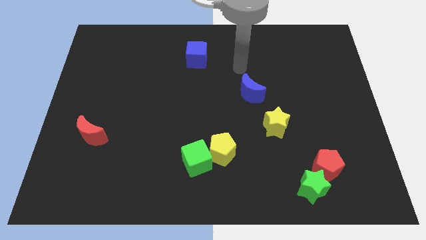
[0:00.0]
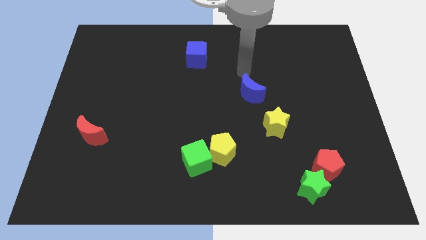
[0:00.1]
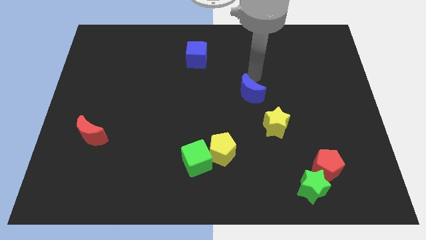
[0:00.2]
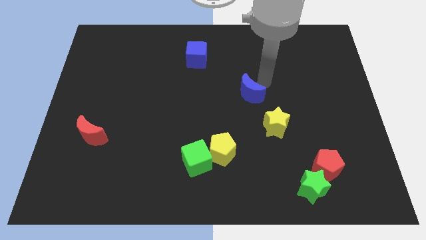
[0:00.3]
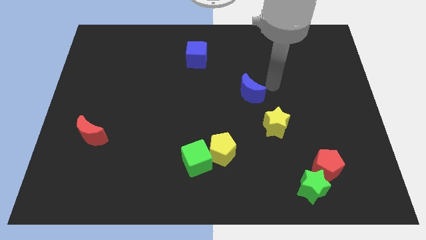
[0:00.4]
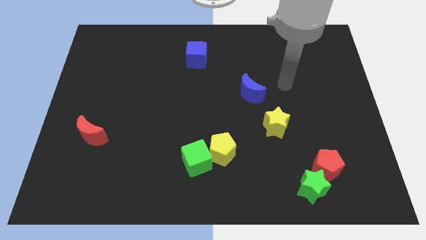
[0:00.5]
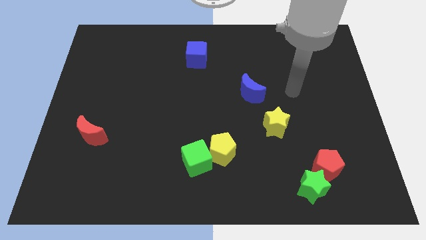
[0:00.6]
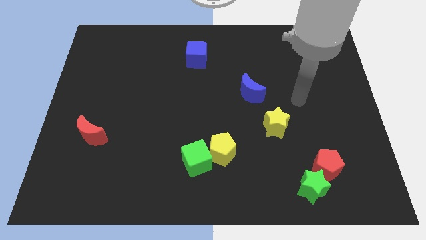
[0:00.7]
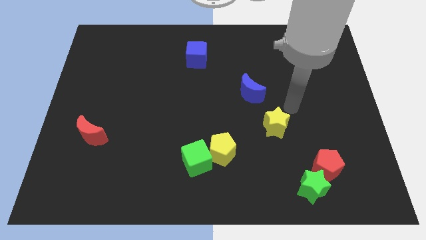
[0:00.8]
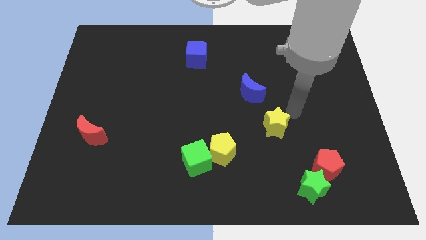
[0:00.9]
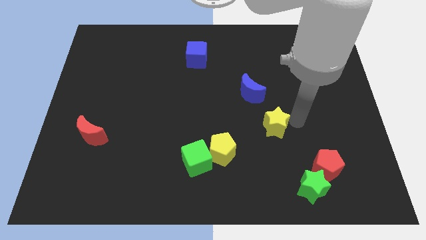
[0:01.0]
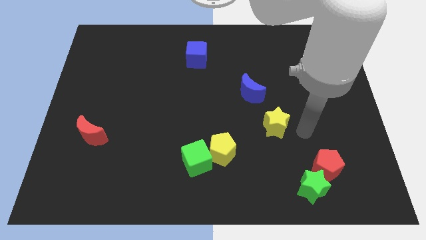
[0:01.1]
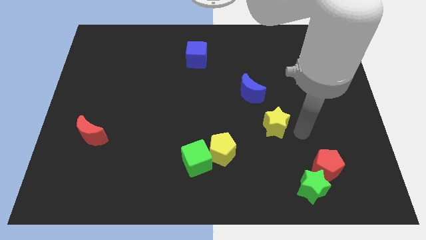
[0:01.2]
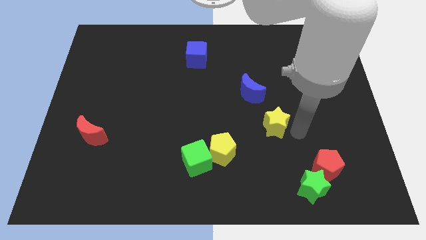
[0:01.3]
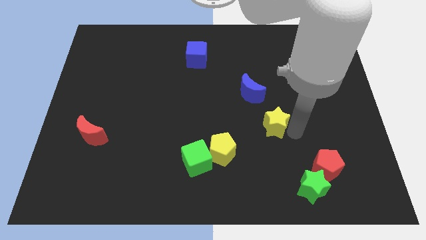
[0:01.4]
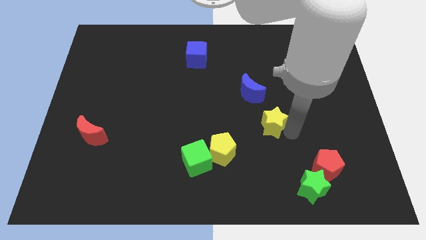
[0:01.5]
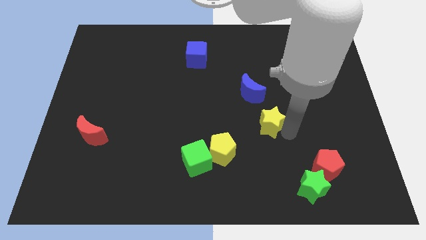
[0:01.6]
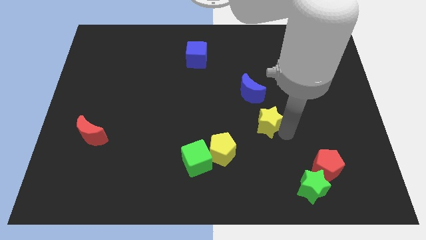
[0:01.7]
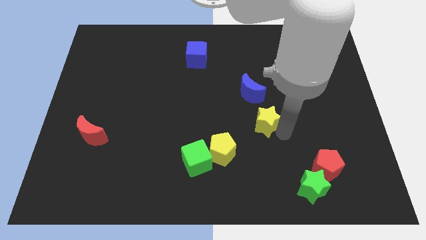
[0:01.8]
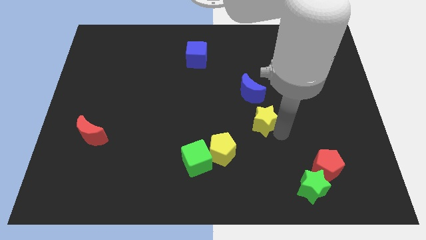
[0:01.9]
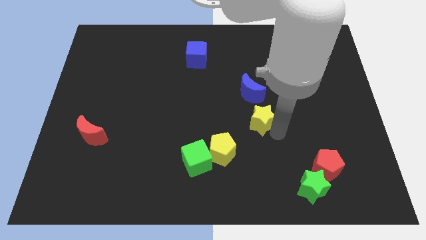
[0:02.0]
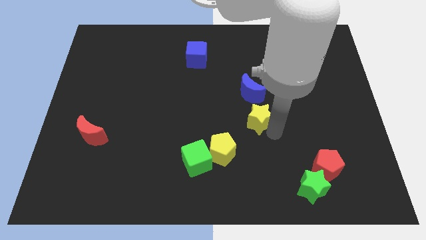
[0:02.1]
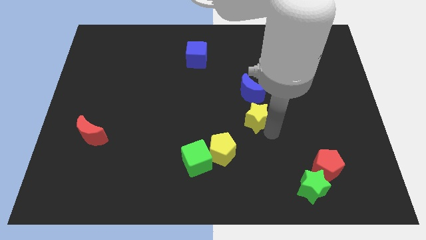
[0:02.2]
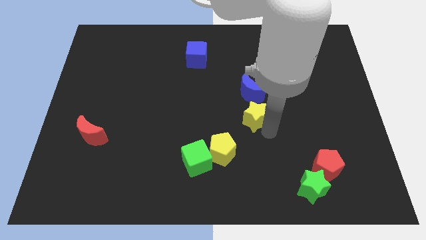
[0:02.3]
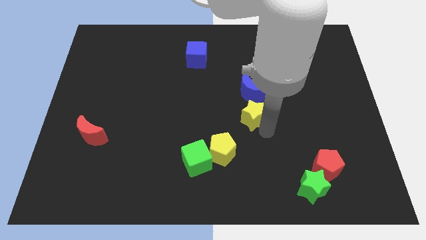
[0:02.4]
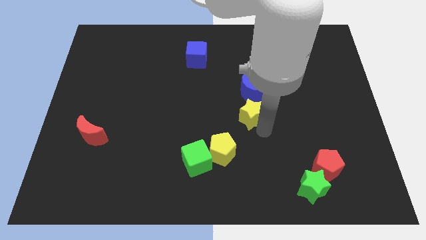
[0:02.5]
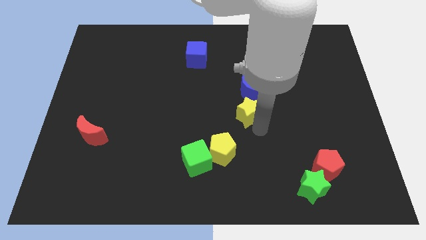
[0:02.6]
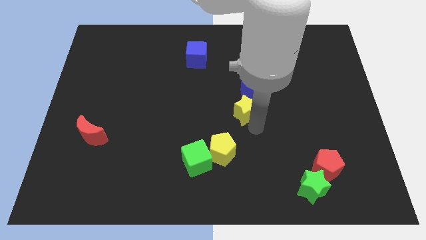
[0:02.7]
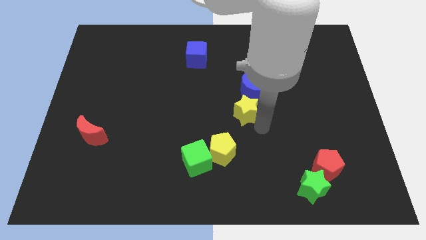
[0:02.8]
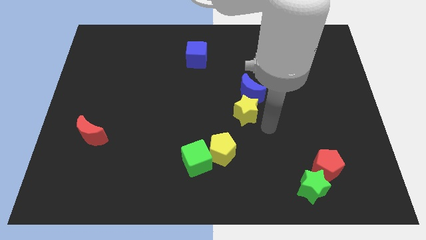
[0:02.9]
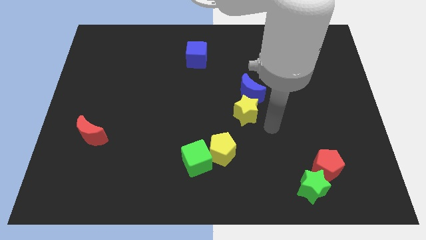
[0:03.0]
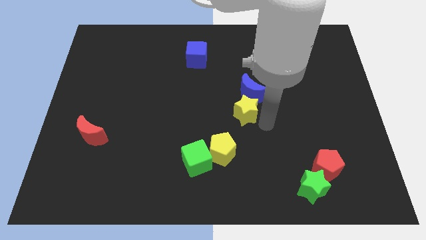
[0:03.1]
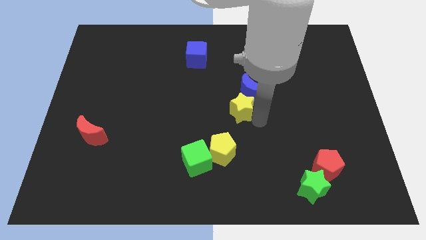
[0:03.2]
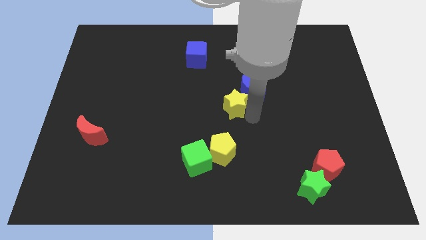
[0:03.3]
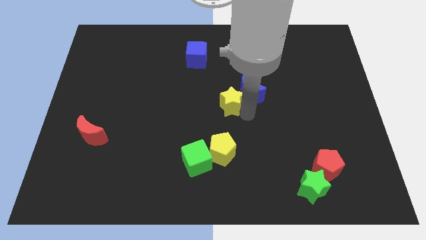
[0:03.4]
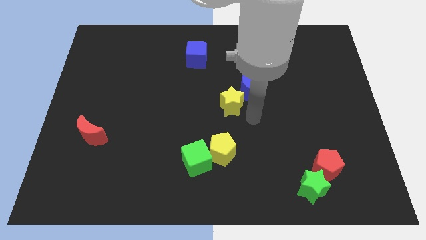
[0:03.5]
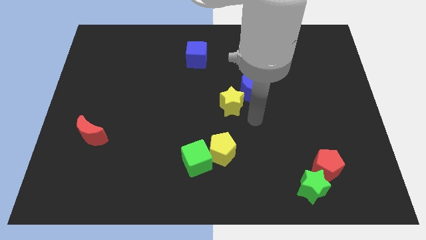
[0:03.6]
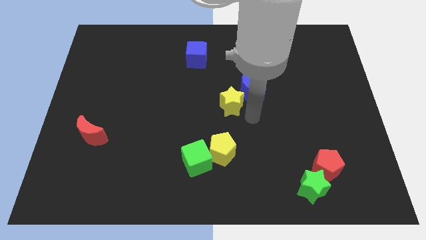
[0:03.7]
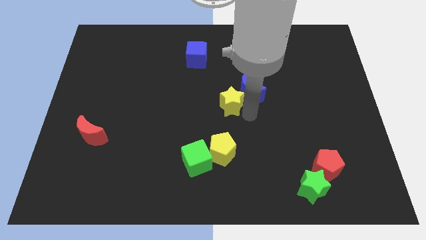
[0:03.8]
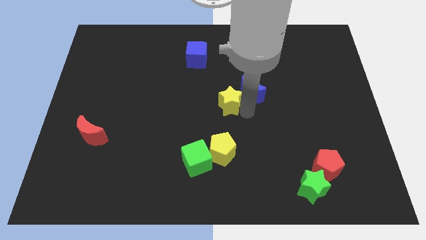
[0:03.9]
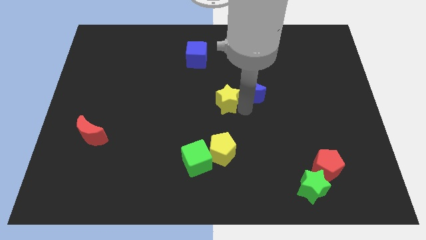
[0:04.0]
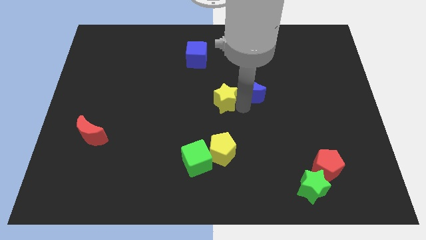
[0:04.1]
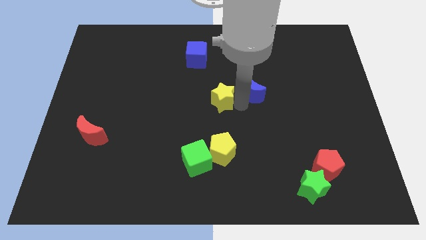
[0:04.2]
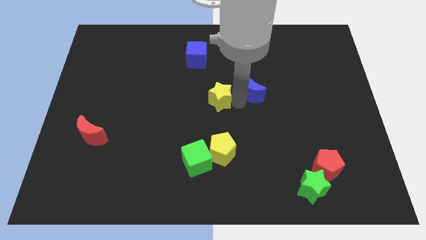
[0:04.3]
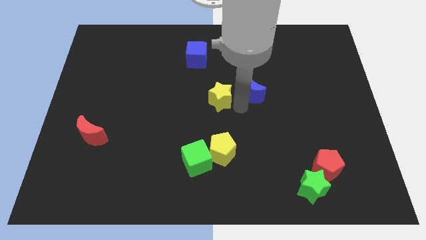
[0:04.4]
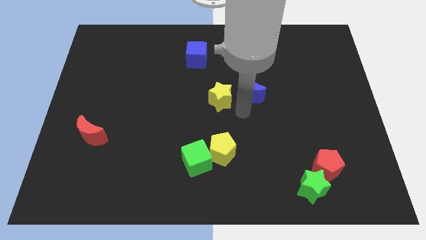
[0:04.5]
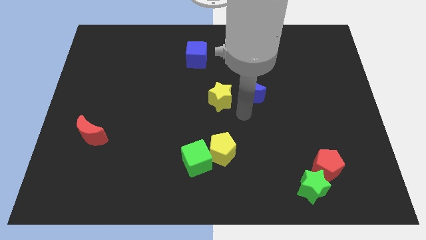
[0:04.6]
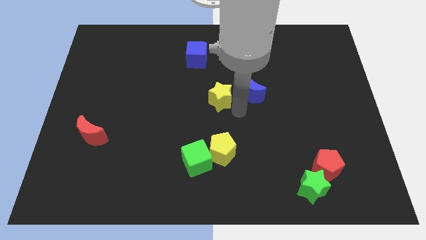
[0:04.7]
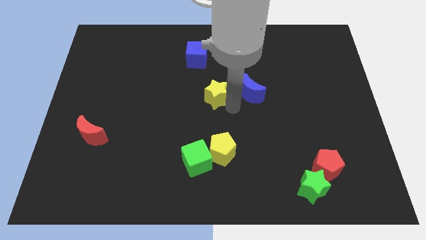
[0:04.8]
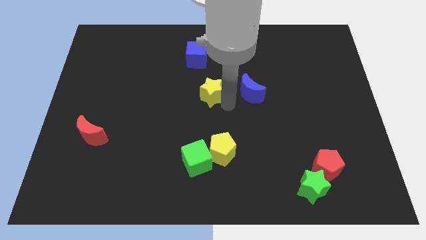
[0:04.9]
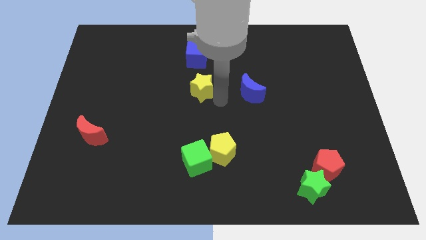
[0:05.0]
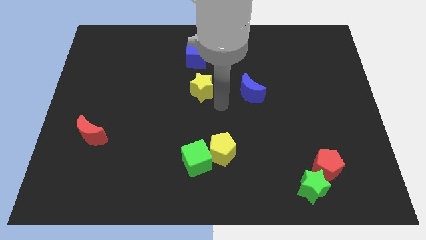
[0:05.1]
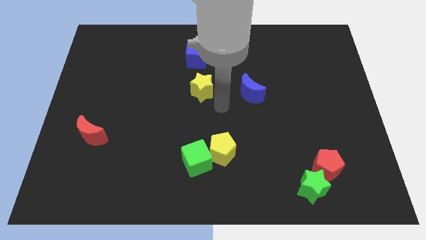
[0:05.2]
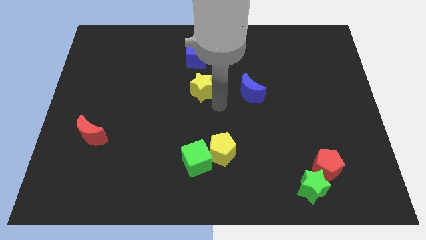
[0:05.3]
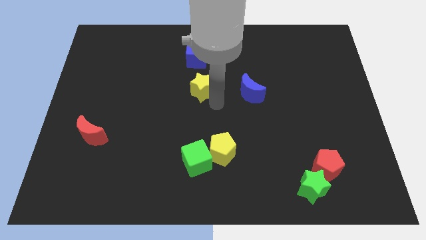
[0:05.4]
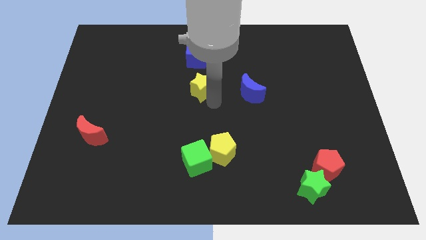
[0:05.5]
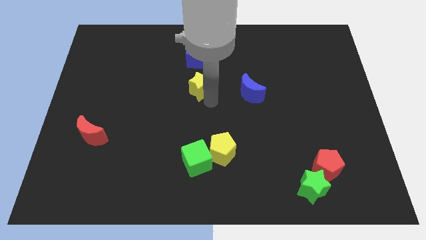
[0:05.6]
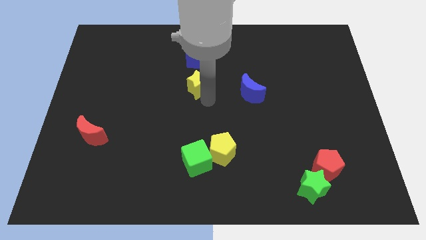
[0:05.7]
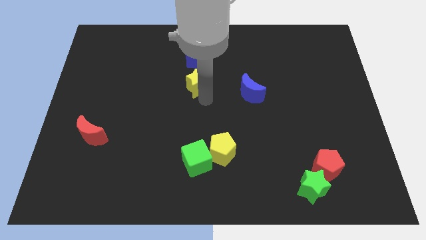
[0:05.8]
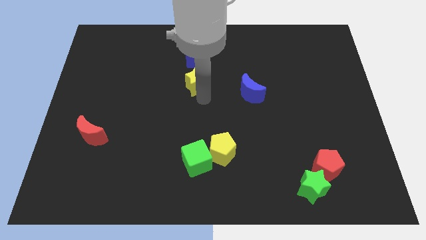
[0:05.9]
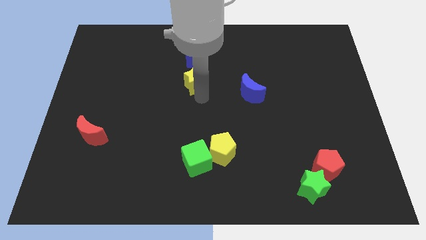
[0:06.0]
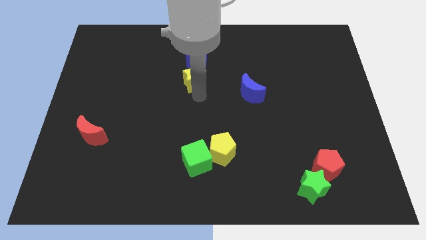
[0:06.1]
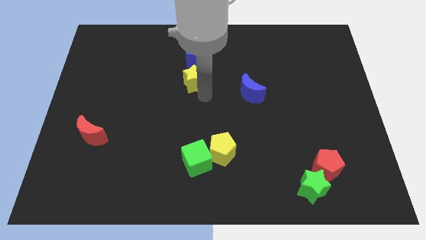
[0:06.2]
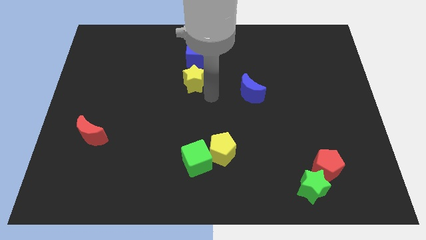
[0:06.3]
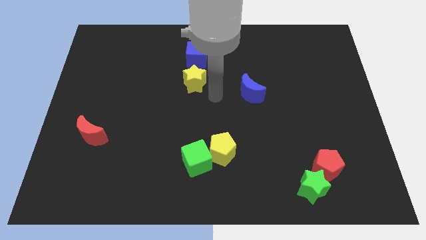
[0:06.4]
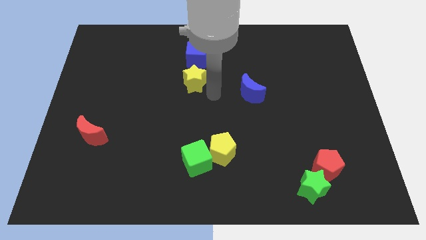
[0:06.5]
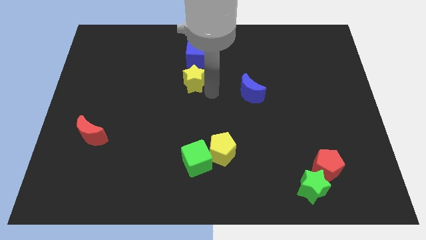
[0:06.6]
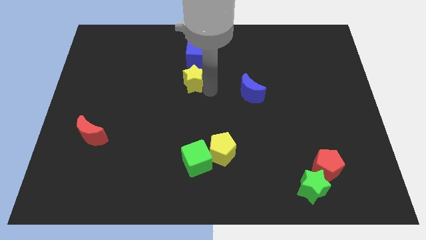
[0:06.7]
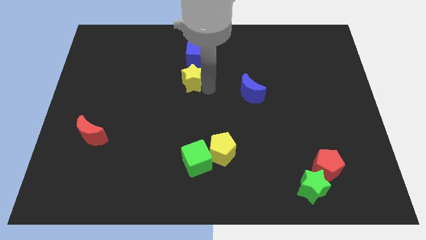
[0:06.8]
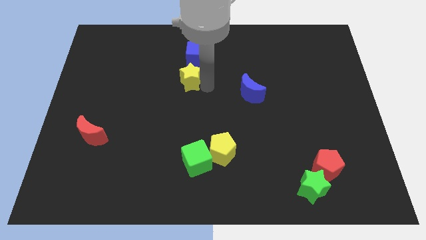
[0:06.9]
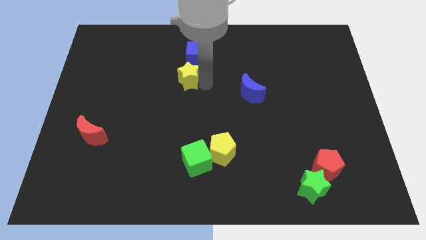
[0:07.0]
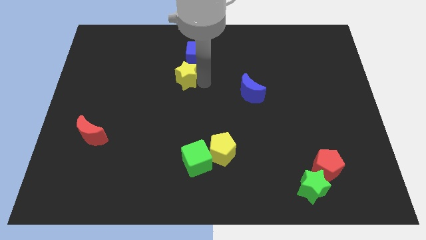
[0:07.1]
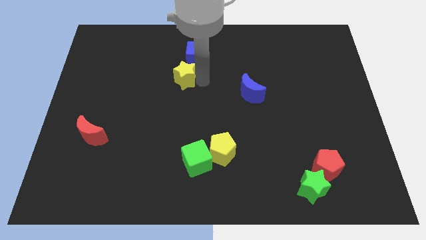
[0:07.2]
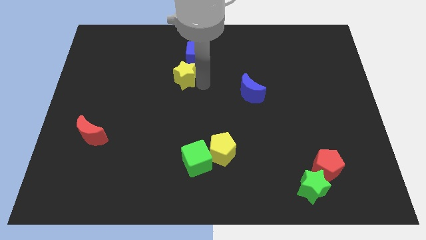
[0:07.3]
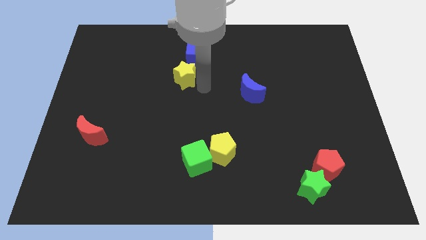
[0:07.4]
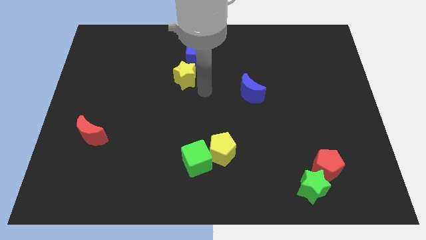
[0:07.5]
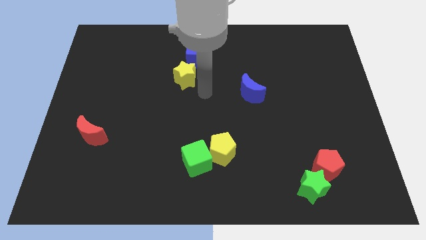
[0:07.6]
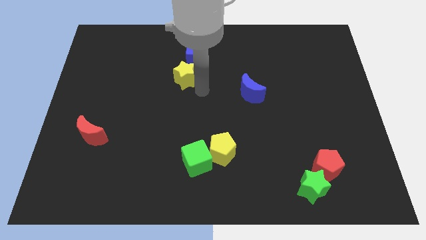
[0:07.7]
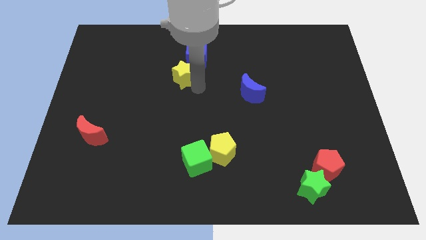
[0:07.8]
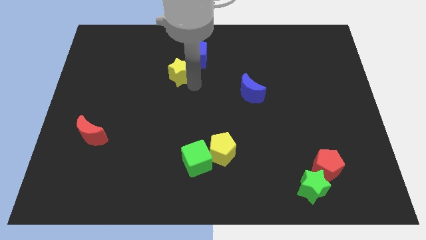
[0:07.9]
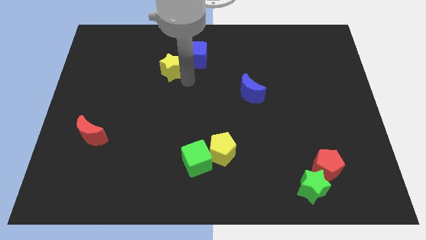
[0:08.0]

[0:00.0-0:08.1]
slide the yellow star to the left of the blue cube
